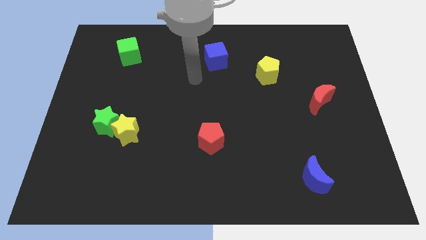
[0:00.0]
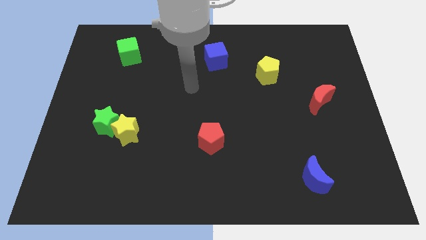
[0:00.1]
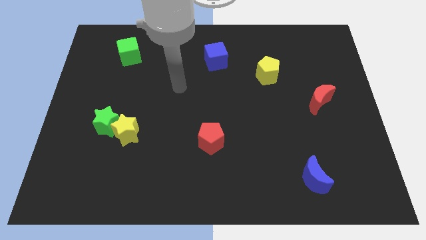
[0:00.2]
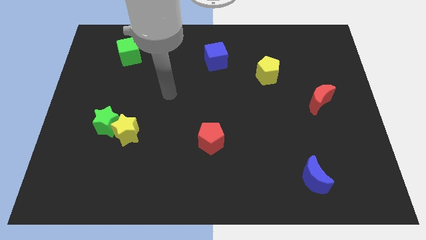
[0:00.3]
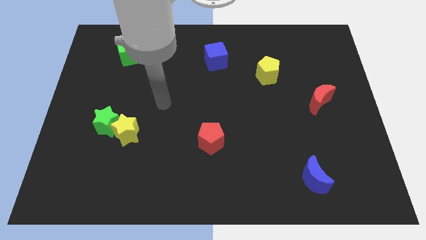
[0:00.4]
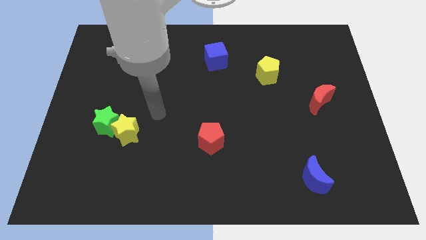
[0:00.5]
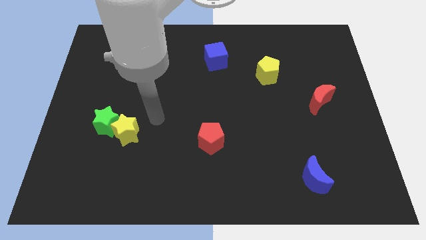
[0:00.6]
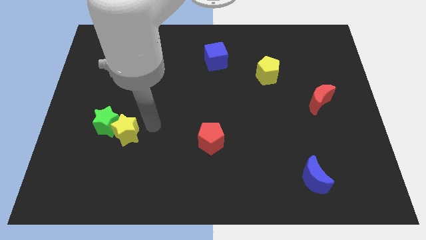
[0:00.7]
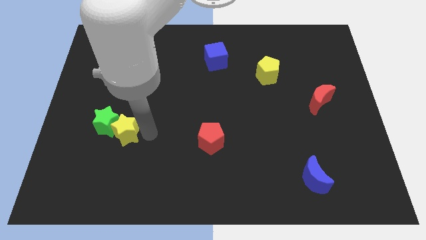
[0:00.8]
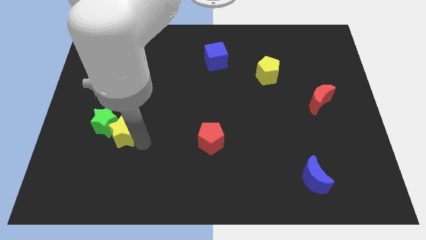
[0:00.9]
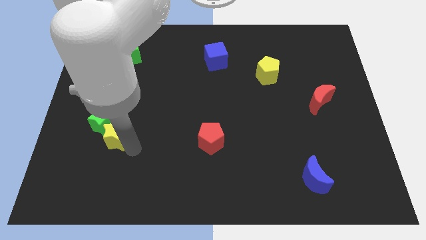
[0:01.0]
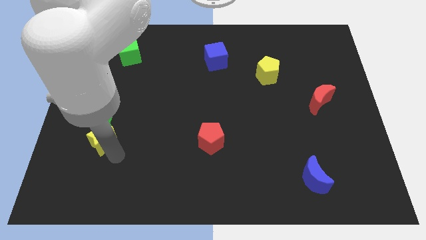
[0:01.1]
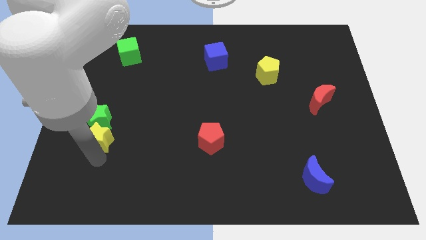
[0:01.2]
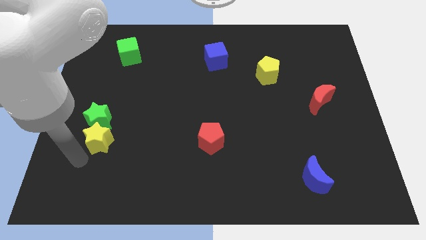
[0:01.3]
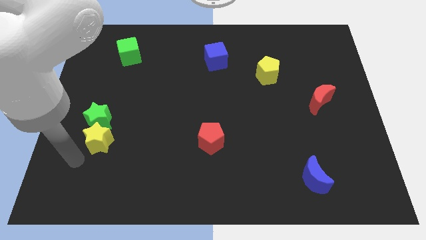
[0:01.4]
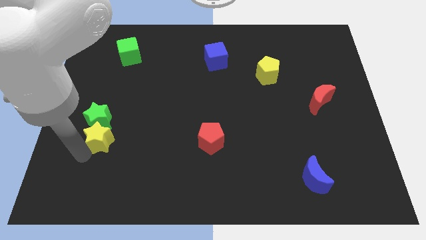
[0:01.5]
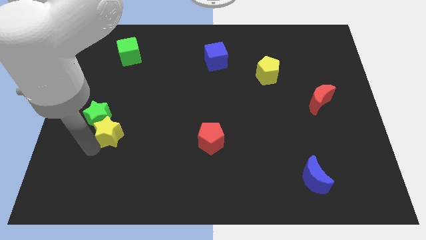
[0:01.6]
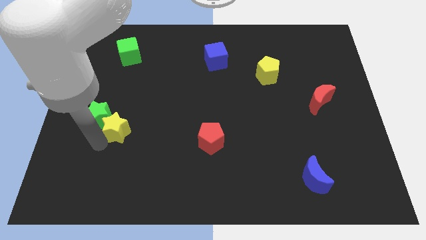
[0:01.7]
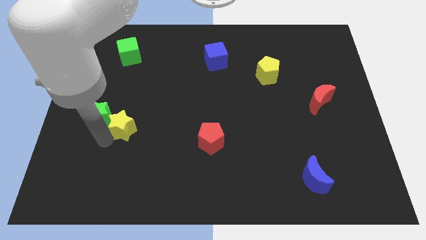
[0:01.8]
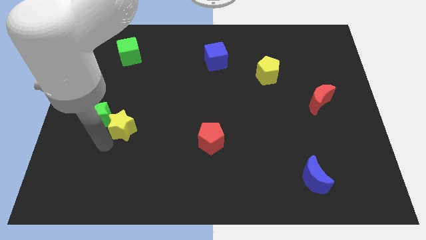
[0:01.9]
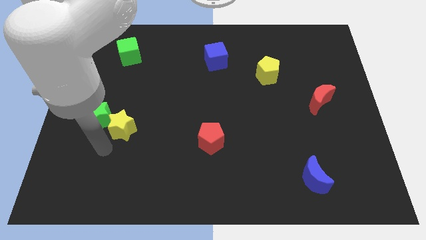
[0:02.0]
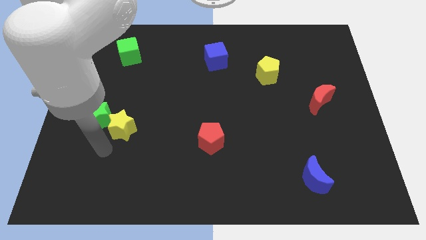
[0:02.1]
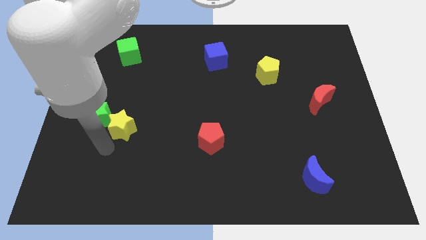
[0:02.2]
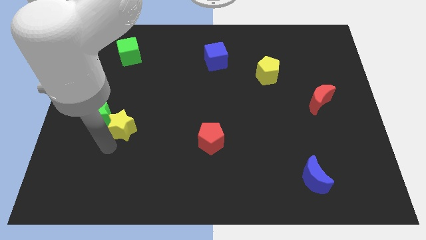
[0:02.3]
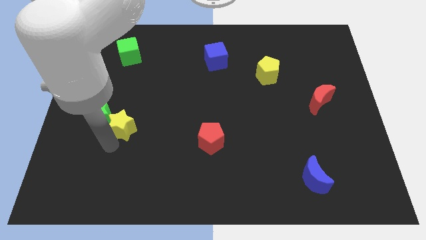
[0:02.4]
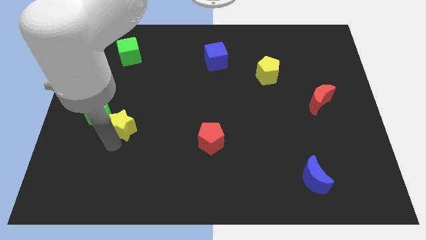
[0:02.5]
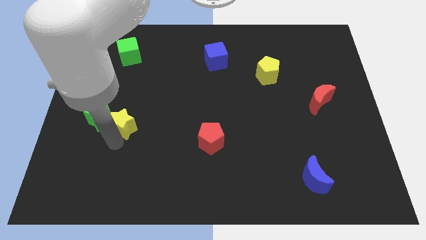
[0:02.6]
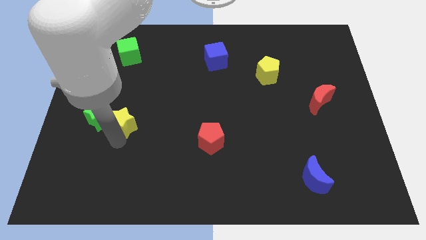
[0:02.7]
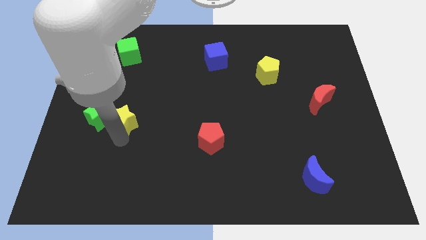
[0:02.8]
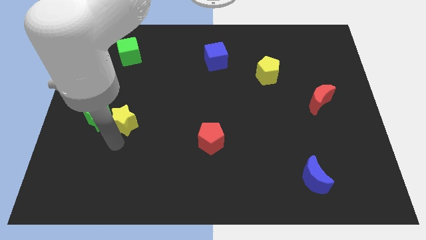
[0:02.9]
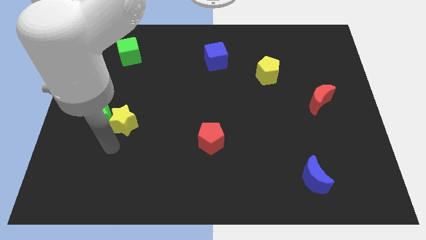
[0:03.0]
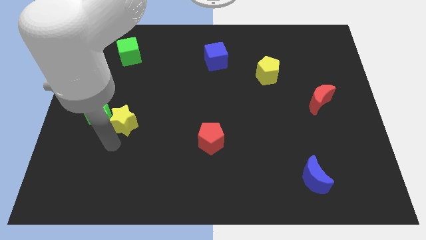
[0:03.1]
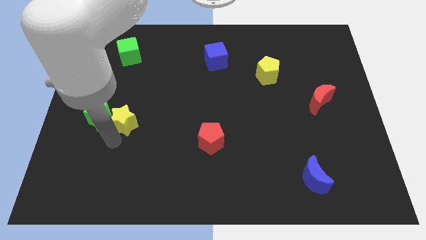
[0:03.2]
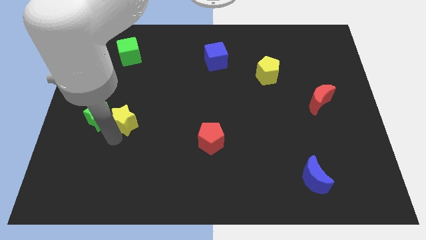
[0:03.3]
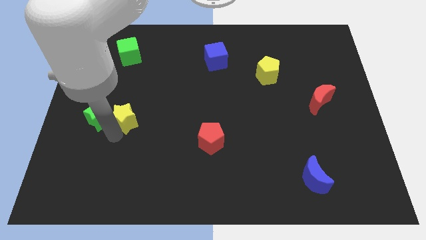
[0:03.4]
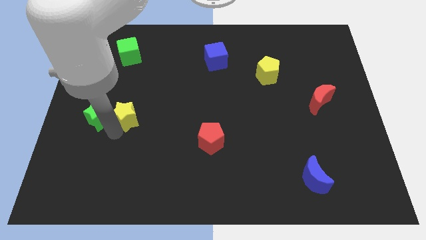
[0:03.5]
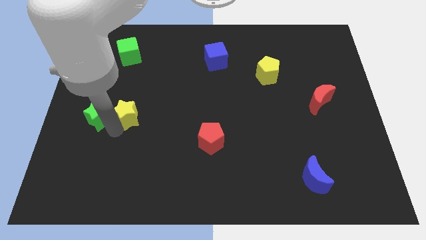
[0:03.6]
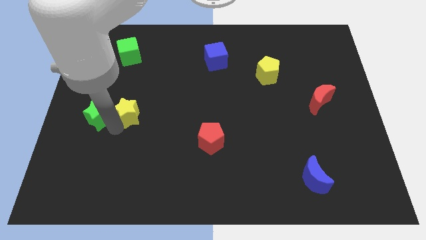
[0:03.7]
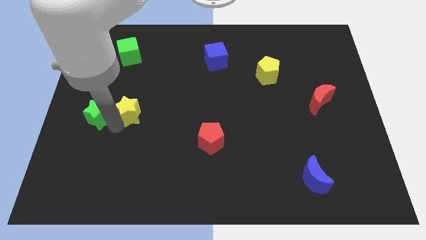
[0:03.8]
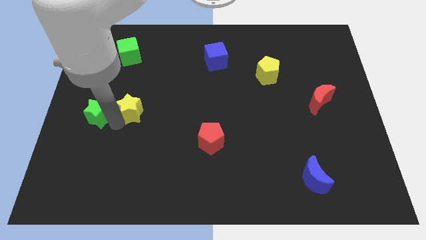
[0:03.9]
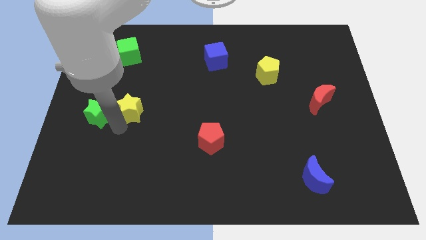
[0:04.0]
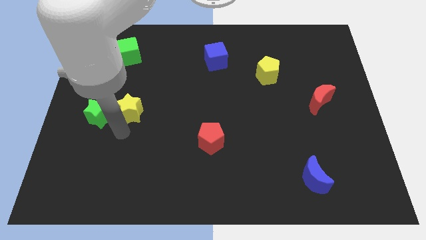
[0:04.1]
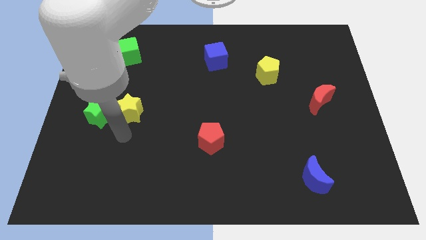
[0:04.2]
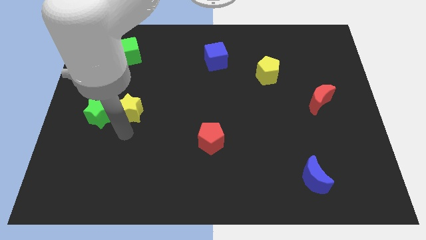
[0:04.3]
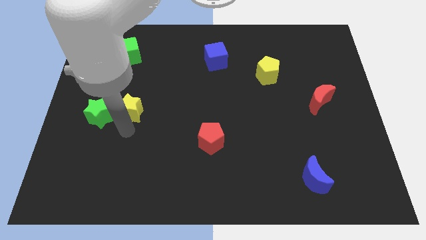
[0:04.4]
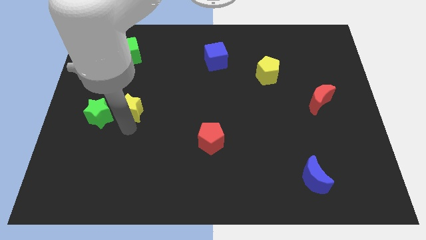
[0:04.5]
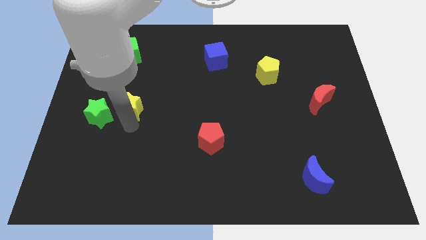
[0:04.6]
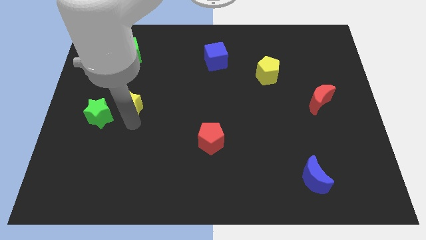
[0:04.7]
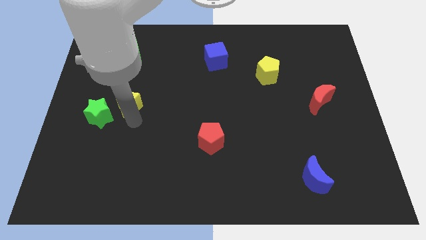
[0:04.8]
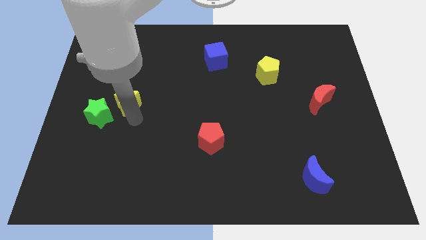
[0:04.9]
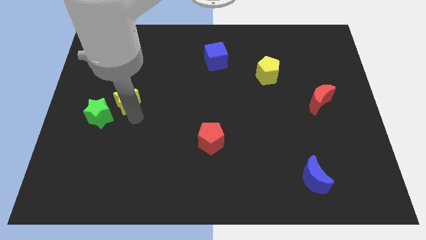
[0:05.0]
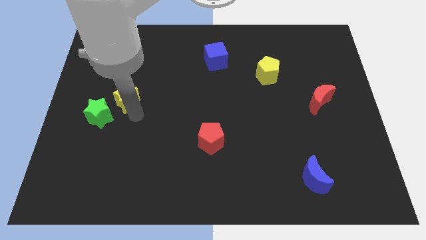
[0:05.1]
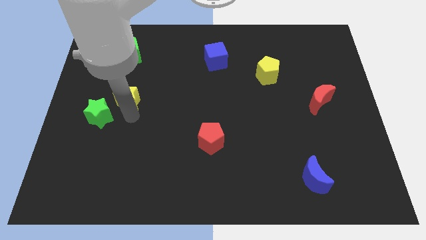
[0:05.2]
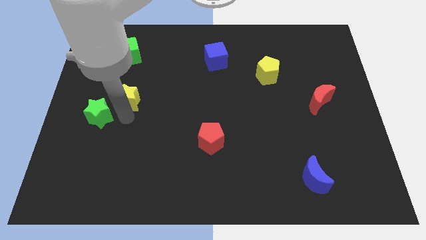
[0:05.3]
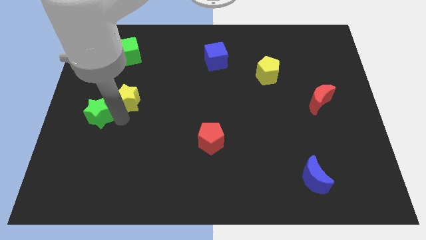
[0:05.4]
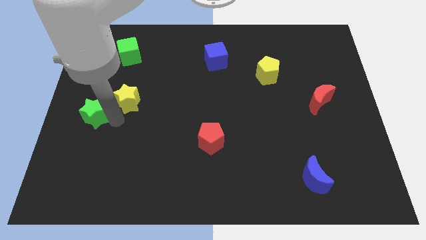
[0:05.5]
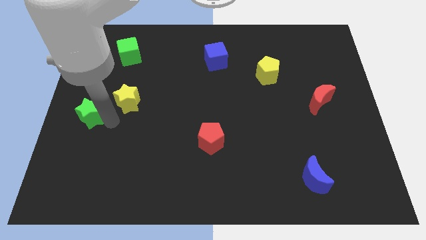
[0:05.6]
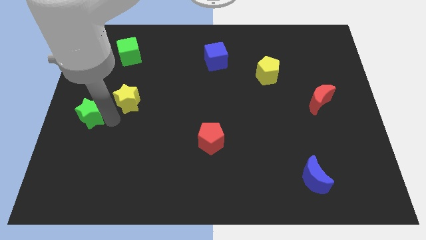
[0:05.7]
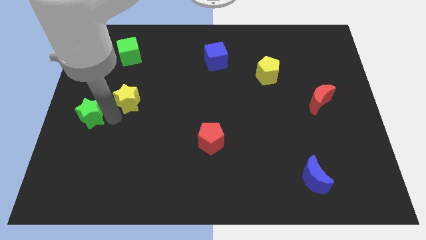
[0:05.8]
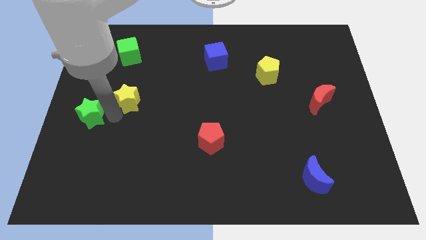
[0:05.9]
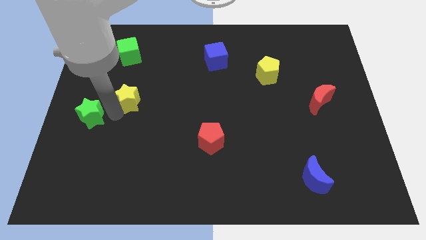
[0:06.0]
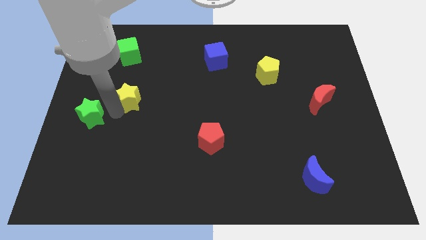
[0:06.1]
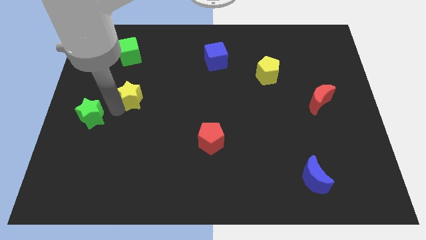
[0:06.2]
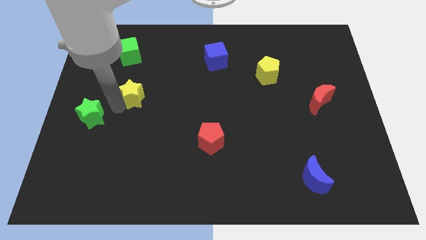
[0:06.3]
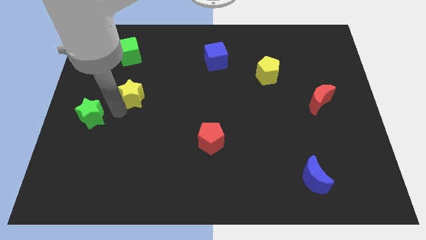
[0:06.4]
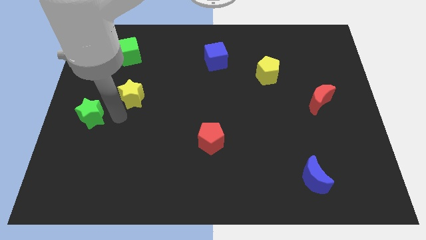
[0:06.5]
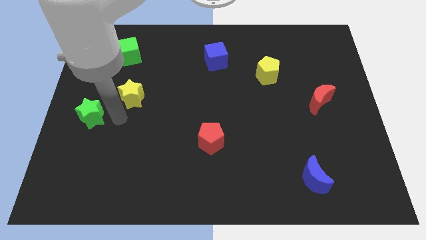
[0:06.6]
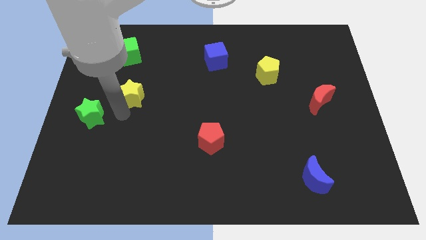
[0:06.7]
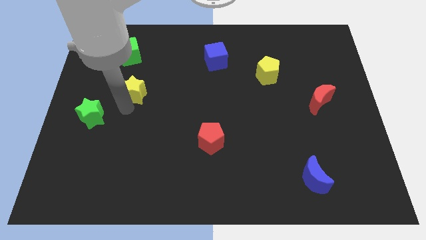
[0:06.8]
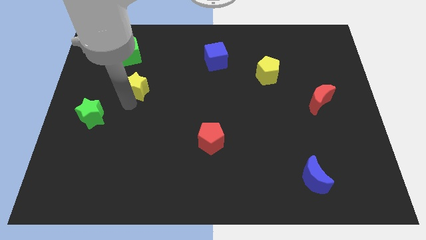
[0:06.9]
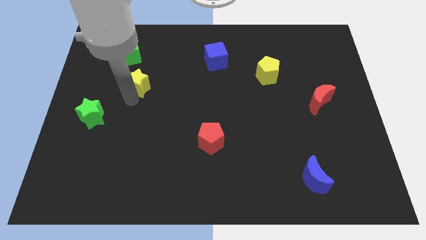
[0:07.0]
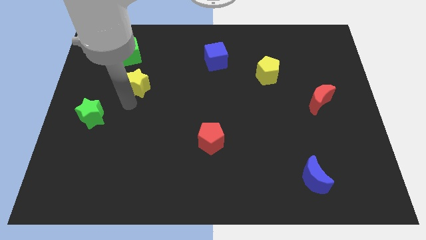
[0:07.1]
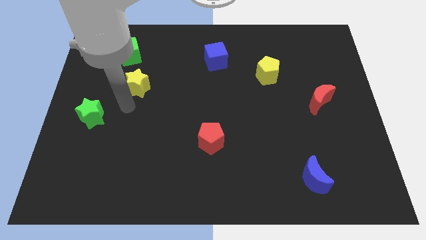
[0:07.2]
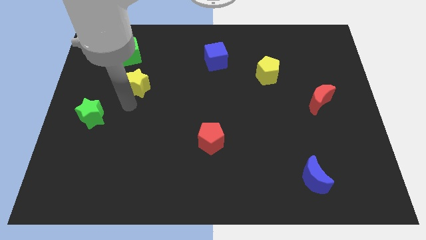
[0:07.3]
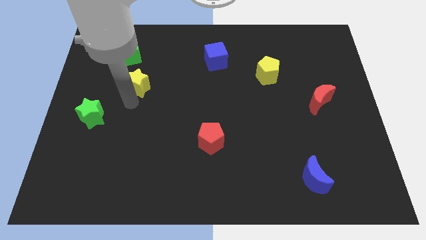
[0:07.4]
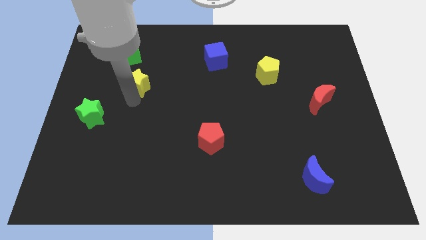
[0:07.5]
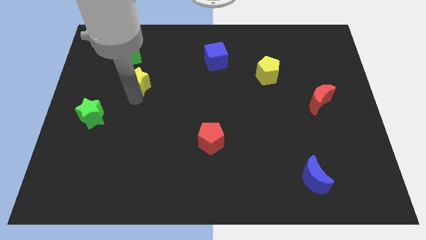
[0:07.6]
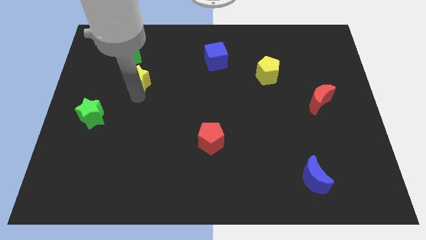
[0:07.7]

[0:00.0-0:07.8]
slide the yellow star diagonally down and to the right of the green cube
